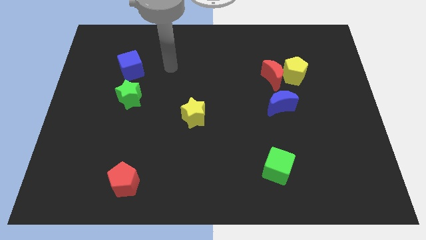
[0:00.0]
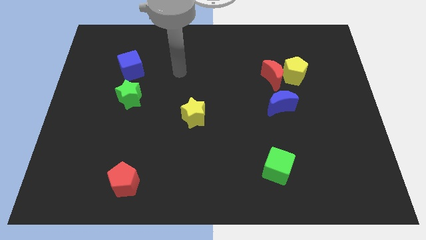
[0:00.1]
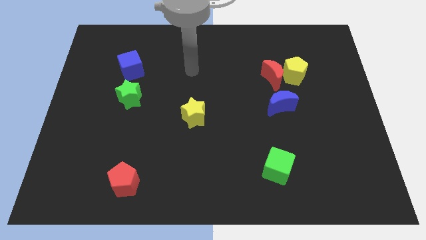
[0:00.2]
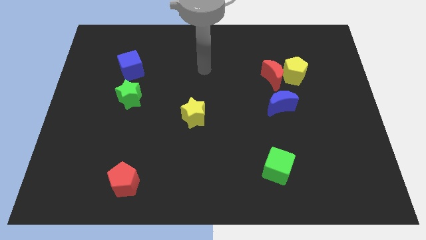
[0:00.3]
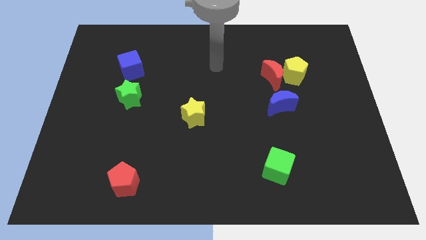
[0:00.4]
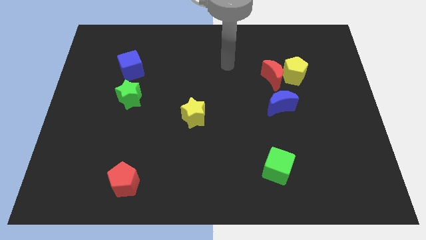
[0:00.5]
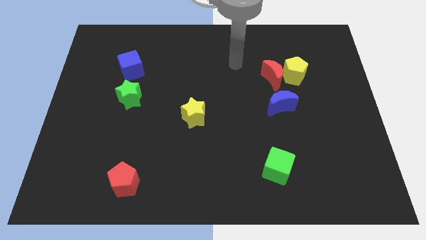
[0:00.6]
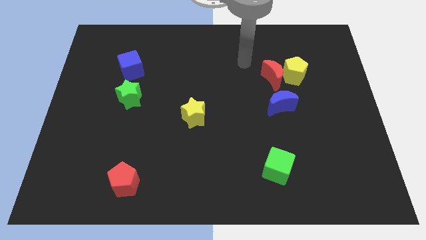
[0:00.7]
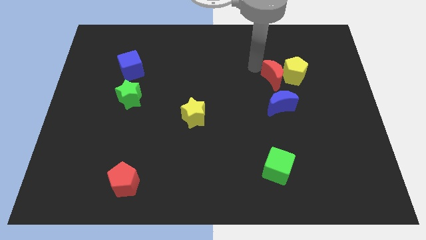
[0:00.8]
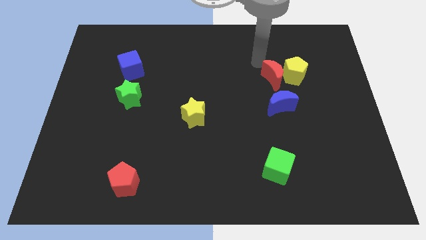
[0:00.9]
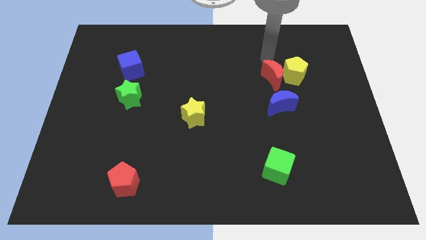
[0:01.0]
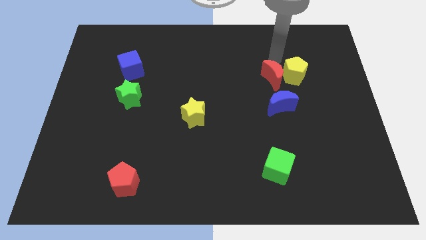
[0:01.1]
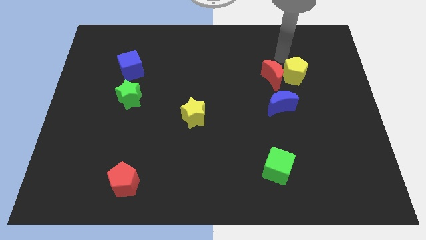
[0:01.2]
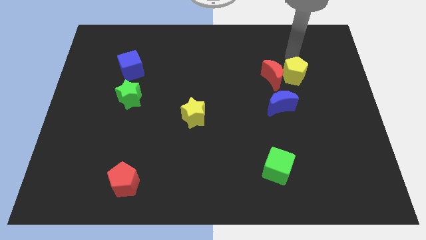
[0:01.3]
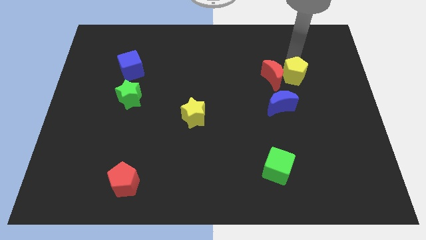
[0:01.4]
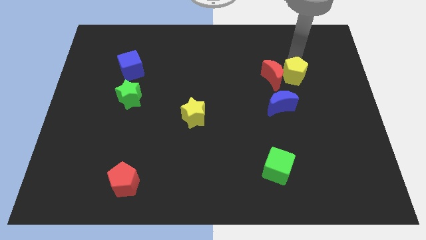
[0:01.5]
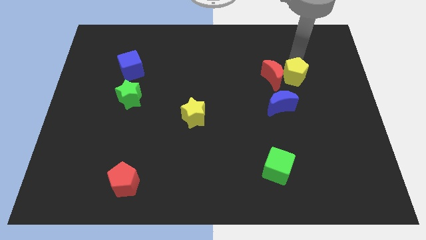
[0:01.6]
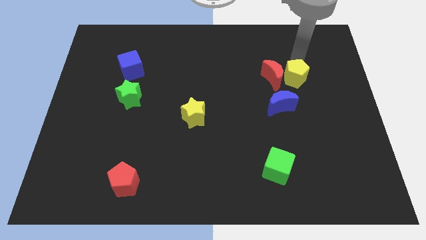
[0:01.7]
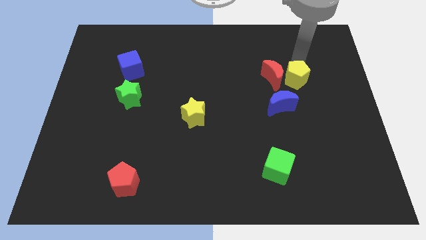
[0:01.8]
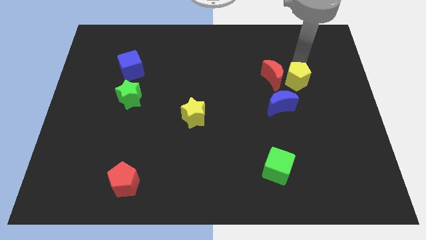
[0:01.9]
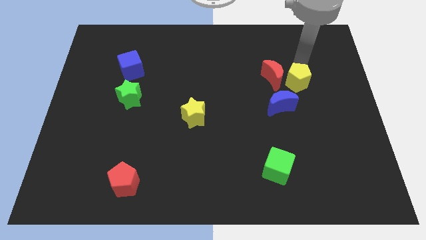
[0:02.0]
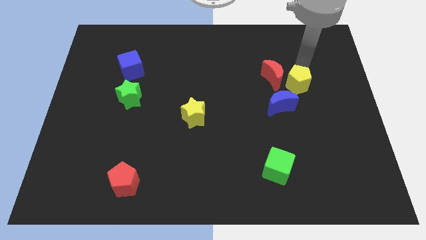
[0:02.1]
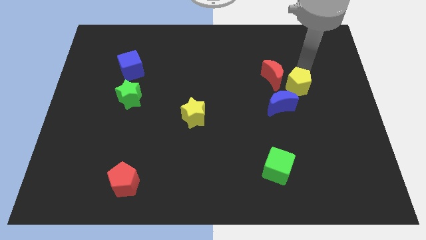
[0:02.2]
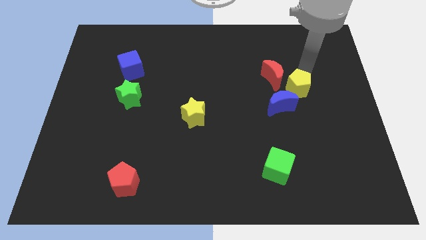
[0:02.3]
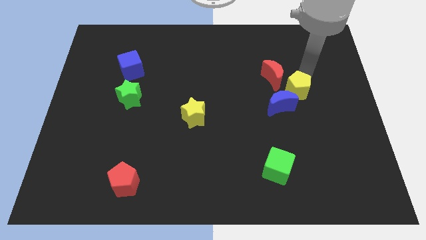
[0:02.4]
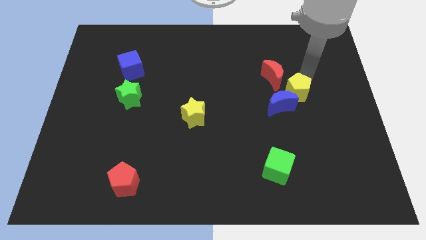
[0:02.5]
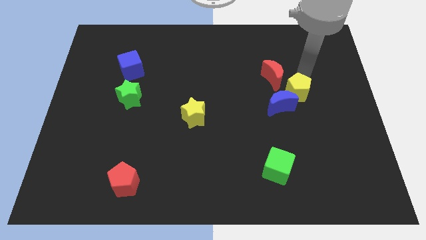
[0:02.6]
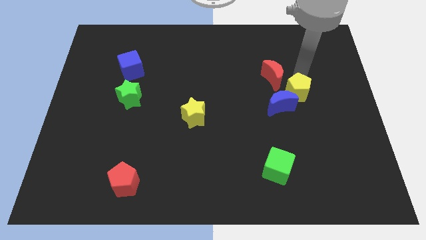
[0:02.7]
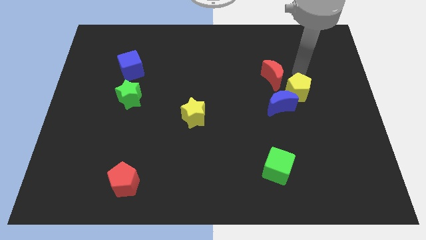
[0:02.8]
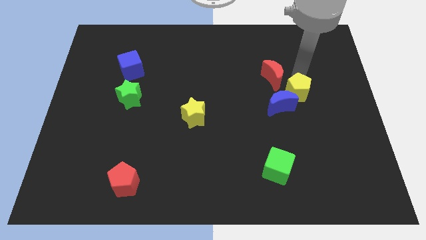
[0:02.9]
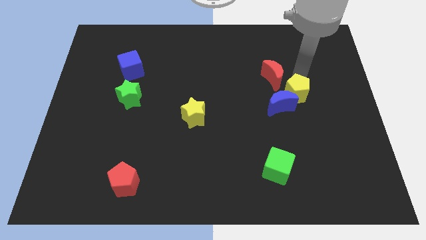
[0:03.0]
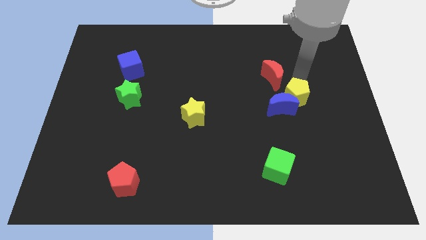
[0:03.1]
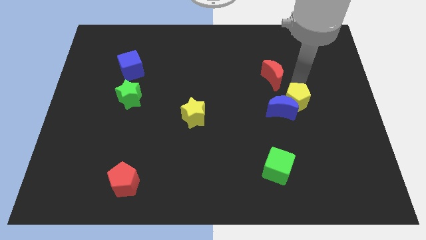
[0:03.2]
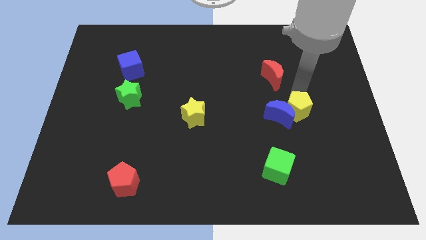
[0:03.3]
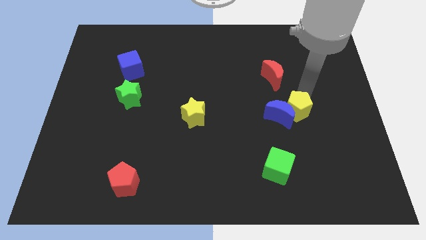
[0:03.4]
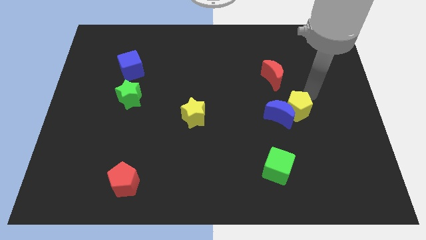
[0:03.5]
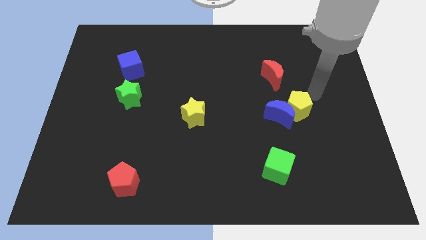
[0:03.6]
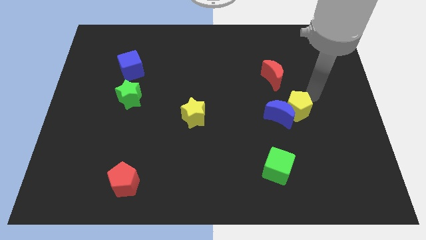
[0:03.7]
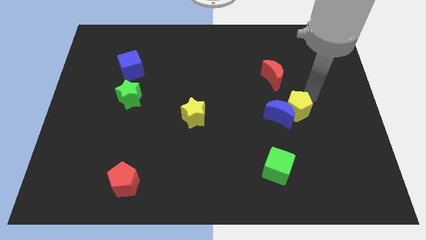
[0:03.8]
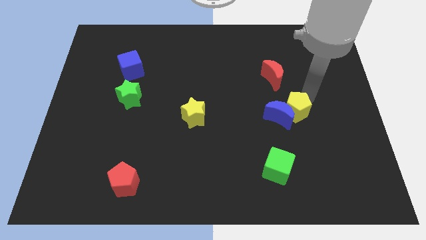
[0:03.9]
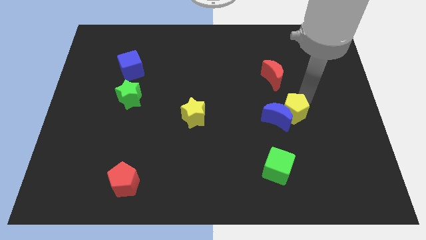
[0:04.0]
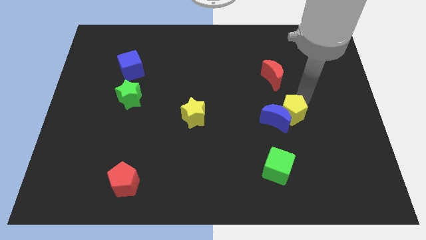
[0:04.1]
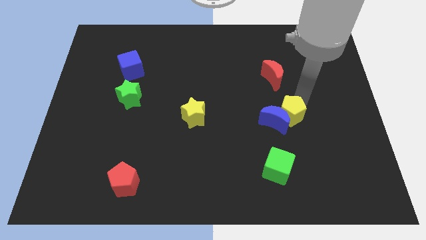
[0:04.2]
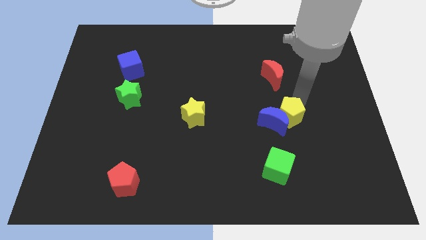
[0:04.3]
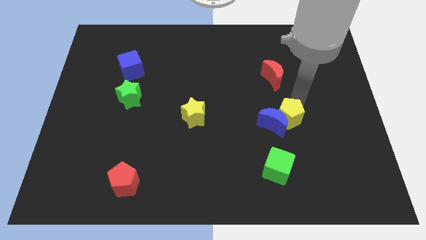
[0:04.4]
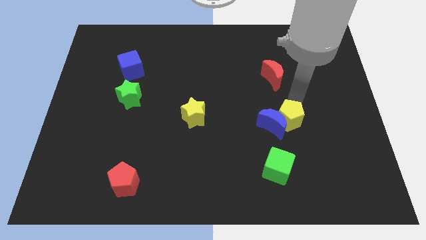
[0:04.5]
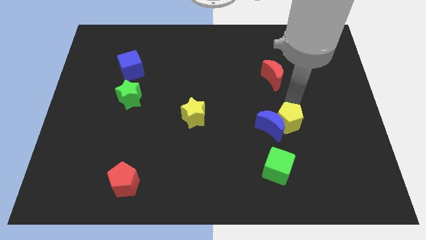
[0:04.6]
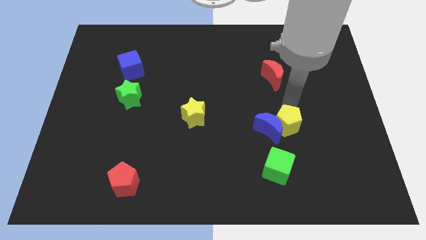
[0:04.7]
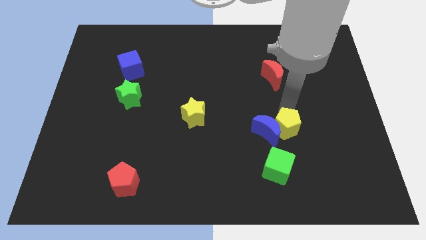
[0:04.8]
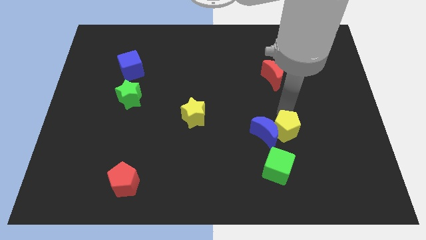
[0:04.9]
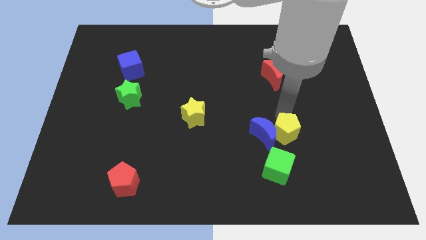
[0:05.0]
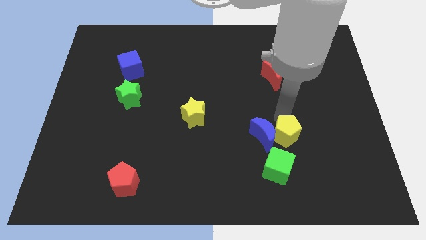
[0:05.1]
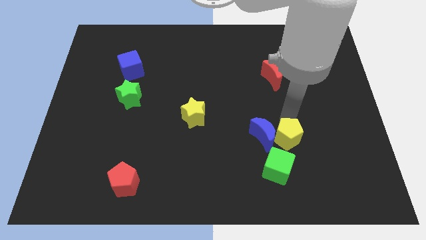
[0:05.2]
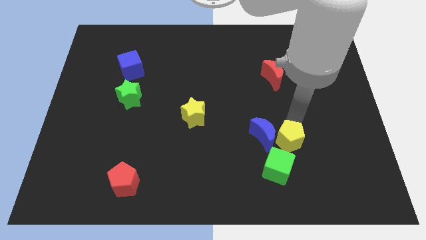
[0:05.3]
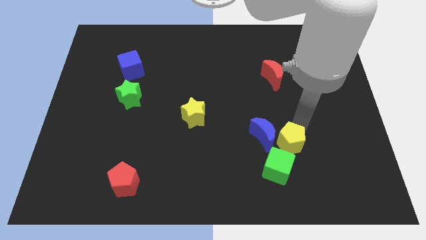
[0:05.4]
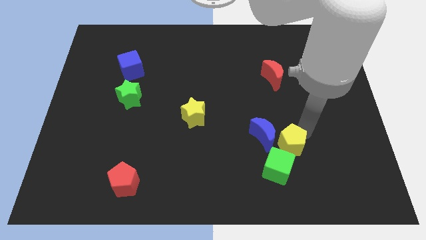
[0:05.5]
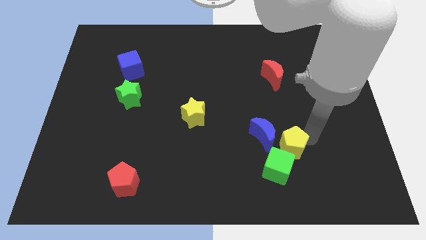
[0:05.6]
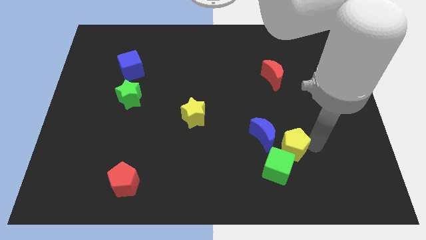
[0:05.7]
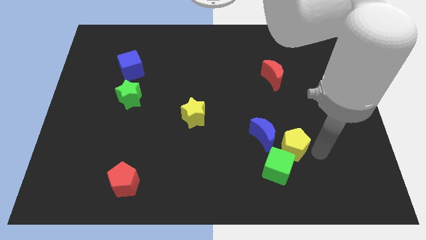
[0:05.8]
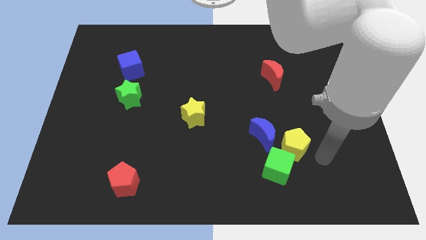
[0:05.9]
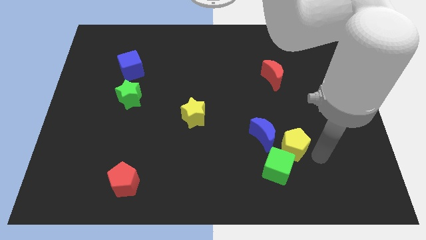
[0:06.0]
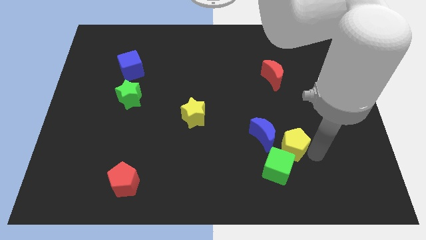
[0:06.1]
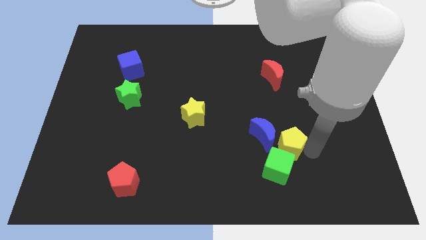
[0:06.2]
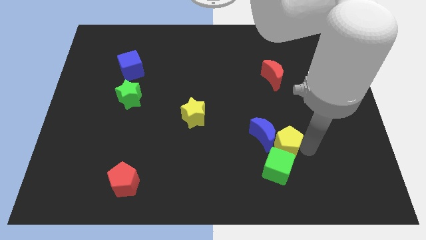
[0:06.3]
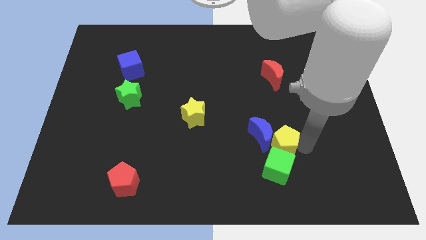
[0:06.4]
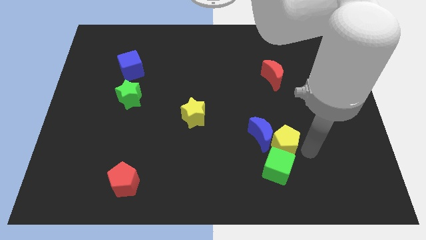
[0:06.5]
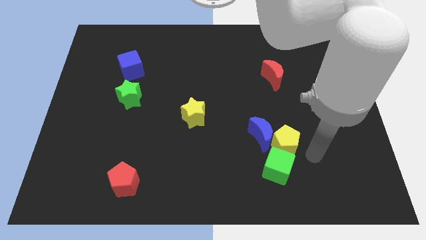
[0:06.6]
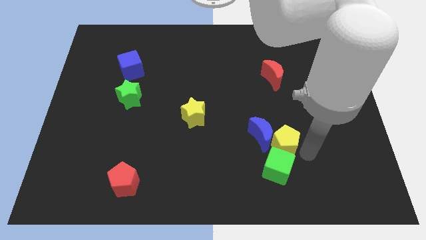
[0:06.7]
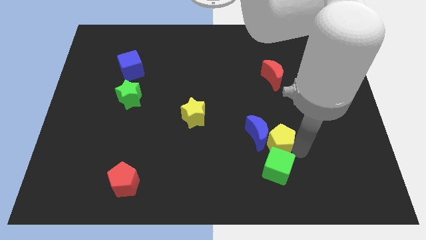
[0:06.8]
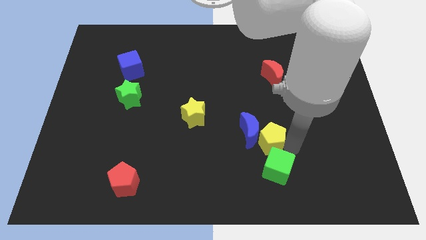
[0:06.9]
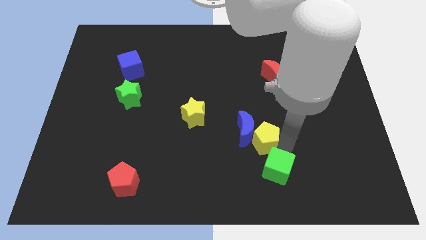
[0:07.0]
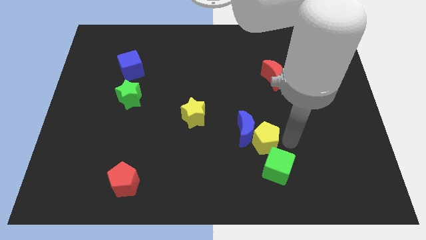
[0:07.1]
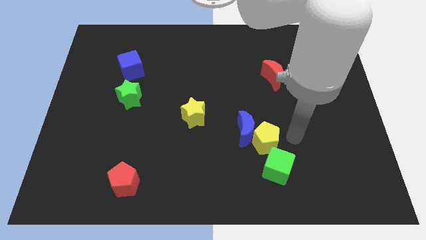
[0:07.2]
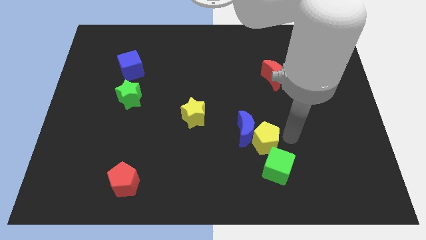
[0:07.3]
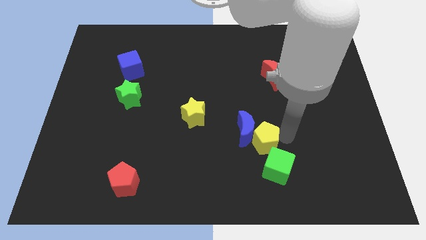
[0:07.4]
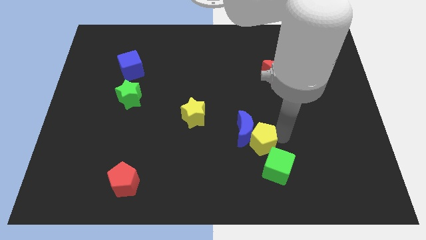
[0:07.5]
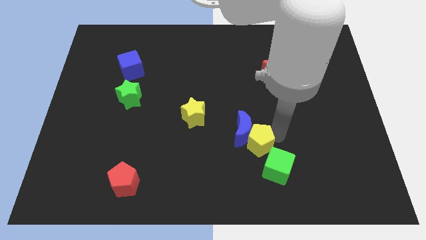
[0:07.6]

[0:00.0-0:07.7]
move the yellow pentagon down and then left

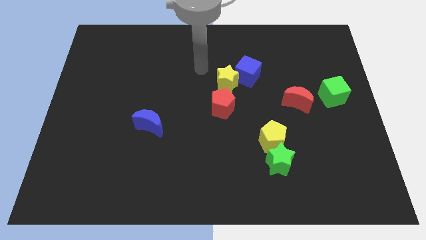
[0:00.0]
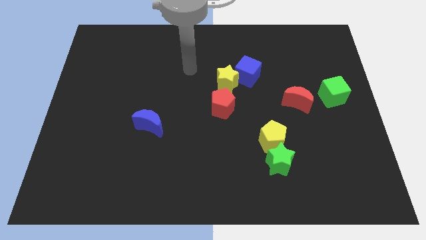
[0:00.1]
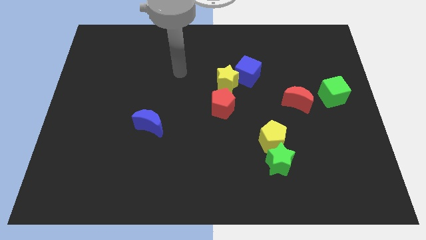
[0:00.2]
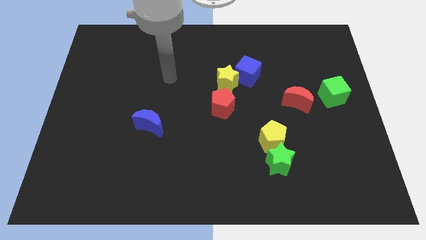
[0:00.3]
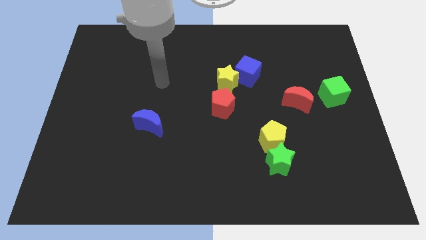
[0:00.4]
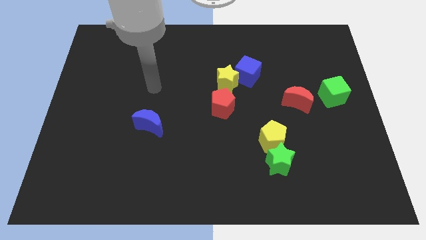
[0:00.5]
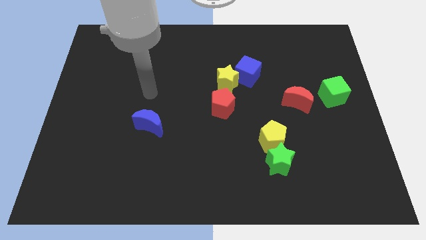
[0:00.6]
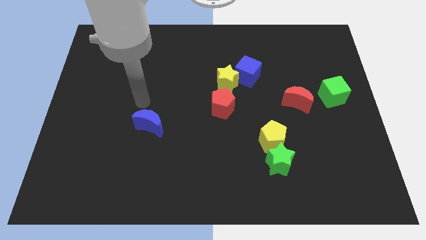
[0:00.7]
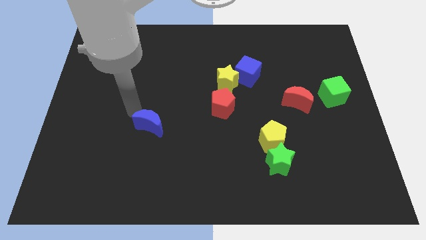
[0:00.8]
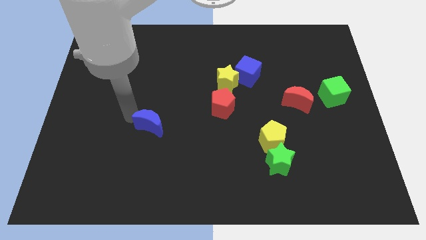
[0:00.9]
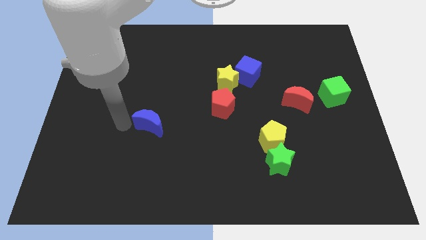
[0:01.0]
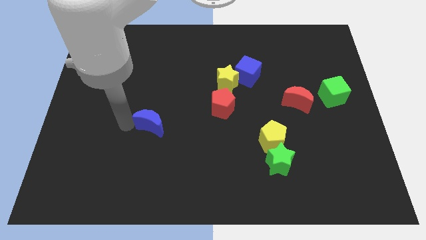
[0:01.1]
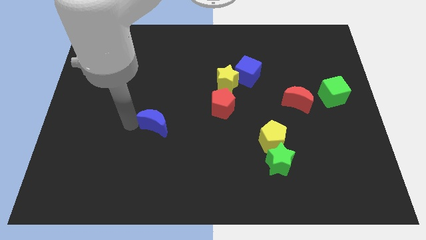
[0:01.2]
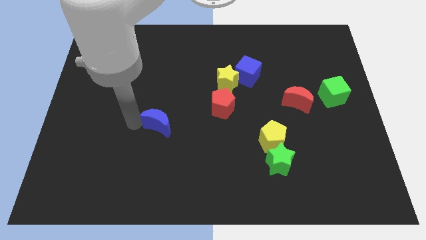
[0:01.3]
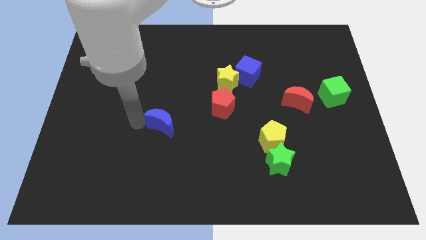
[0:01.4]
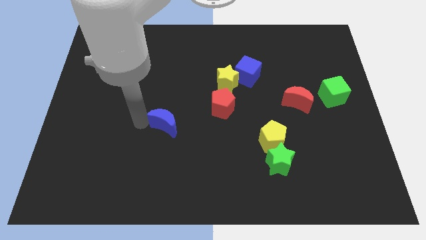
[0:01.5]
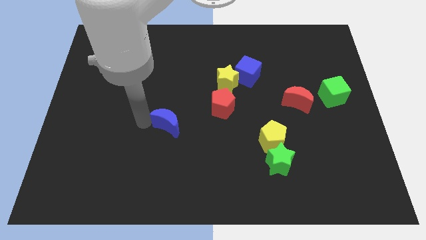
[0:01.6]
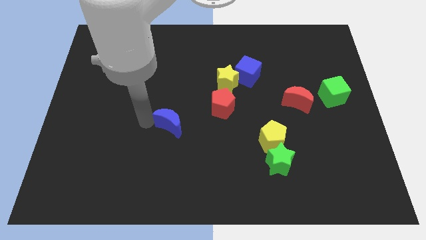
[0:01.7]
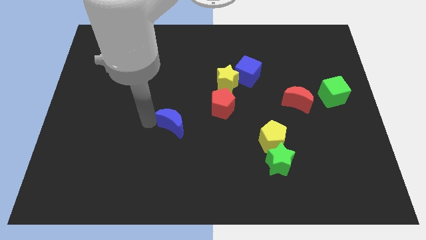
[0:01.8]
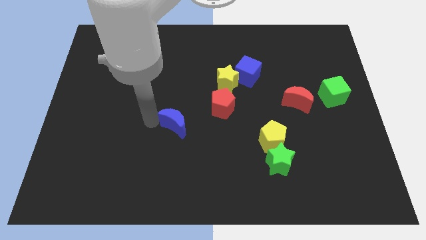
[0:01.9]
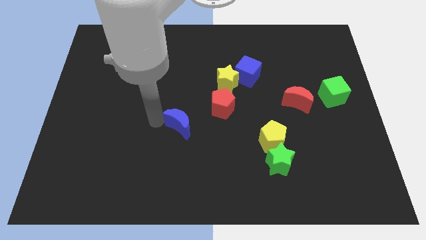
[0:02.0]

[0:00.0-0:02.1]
move the blue moon somewhat right
